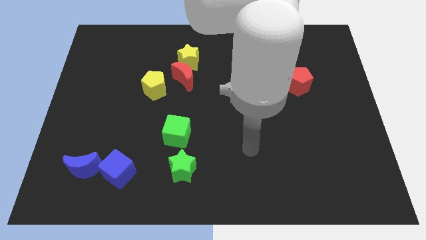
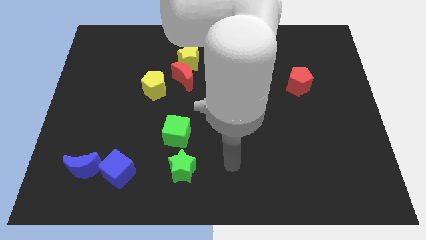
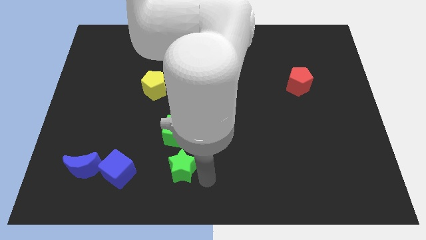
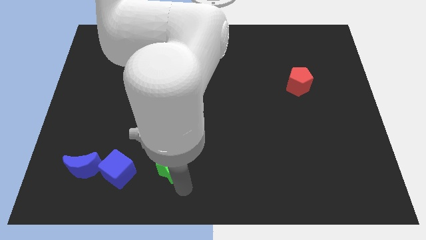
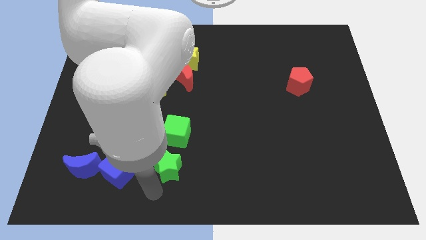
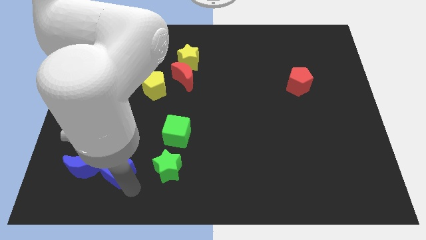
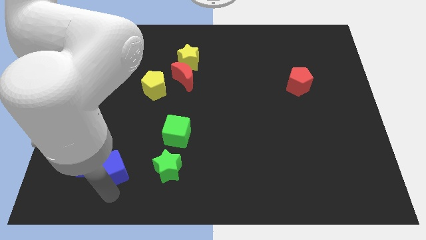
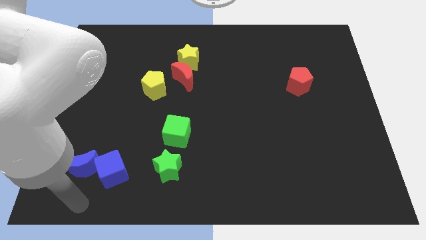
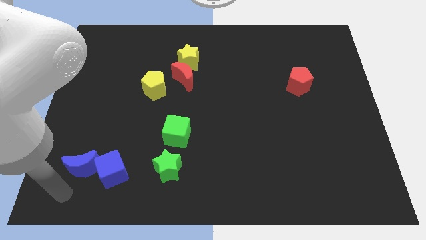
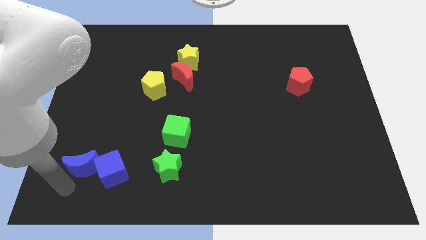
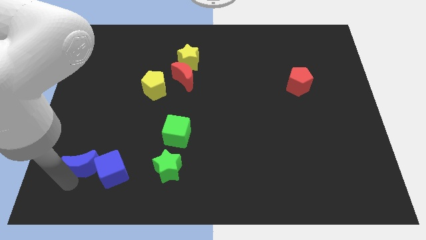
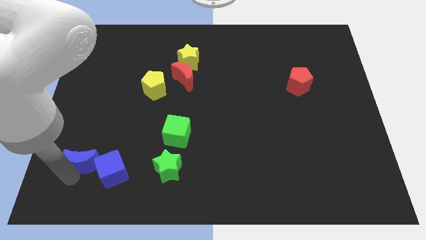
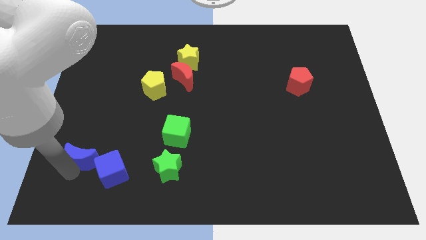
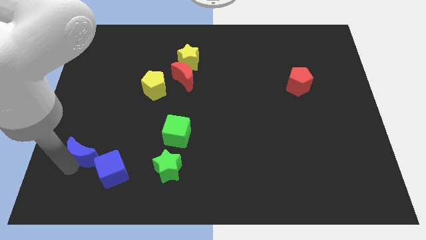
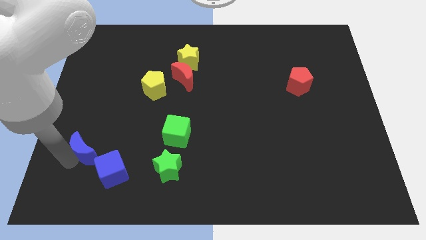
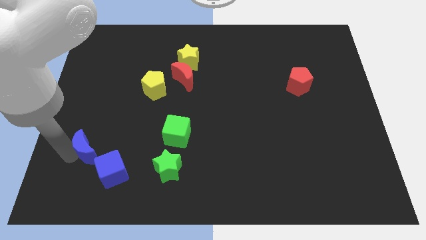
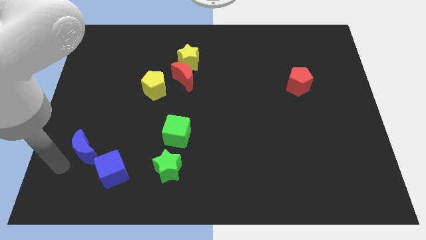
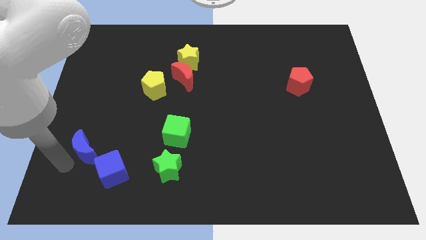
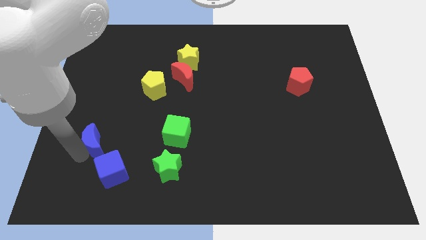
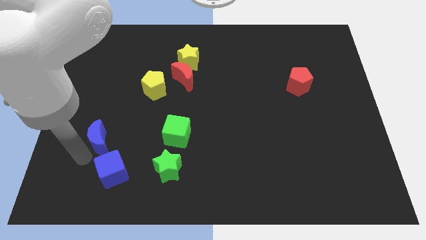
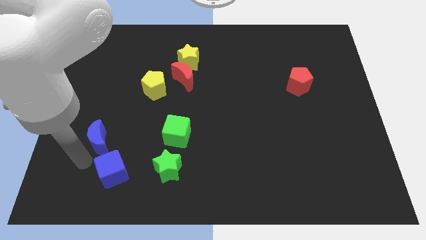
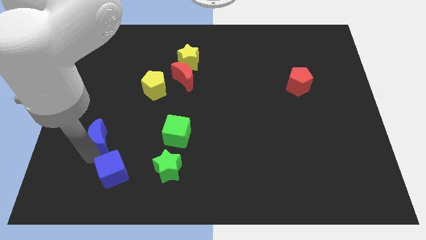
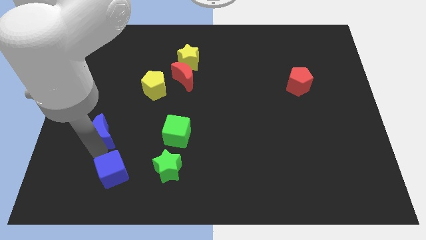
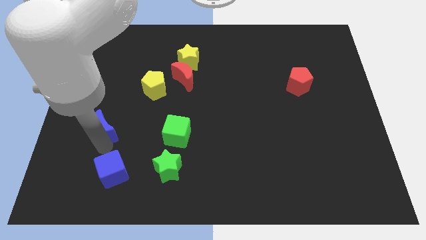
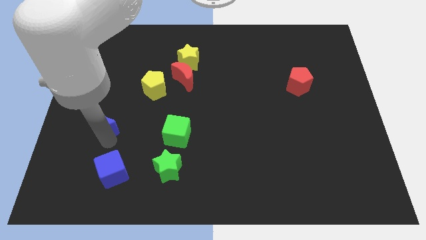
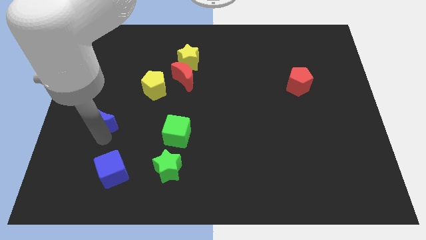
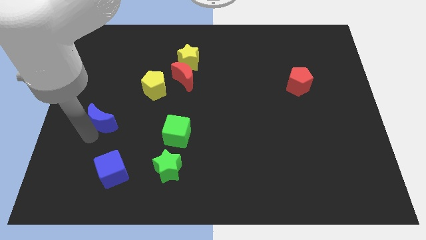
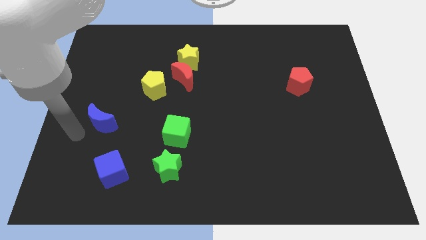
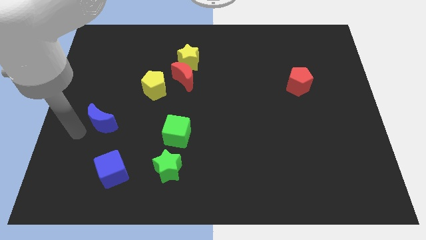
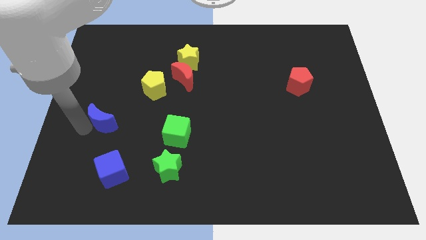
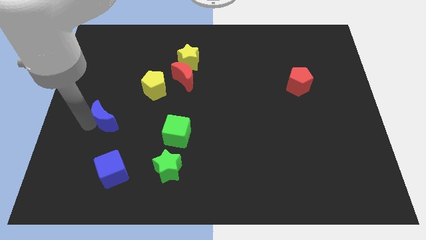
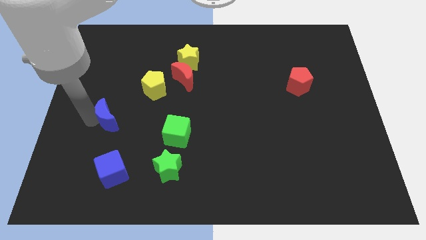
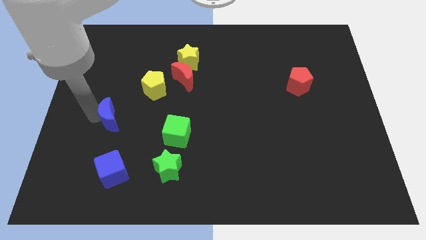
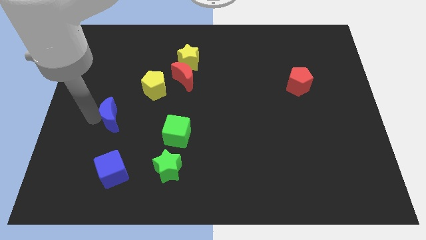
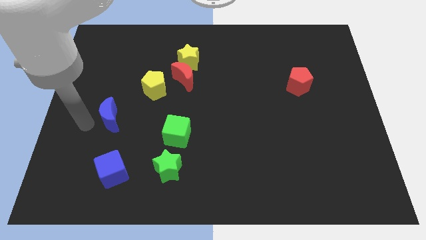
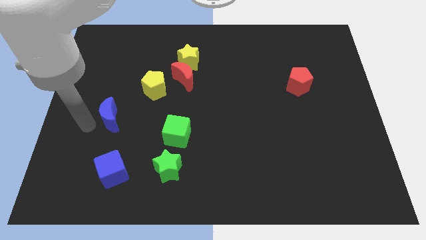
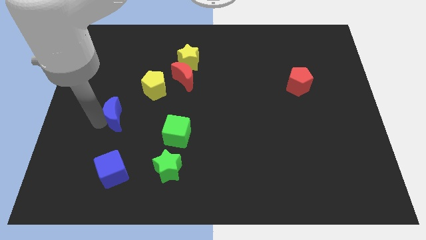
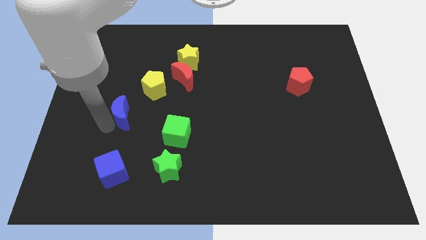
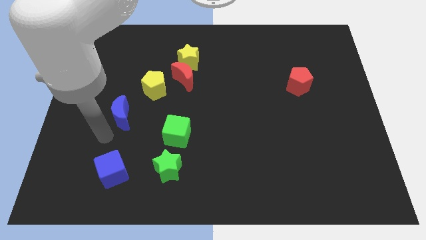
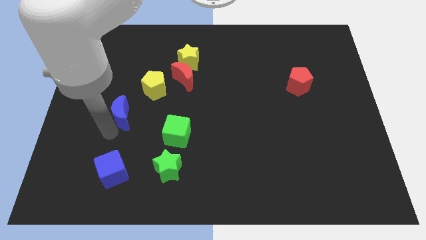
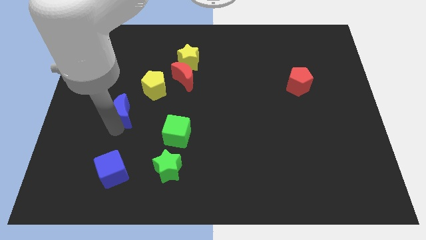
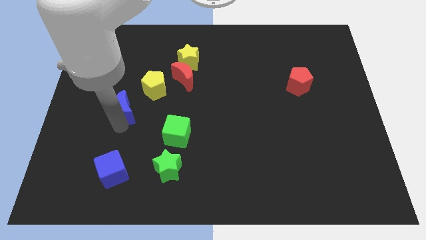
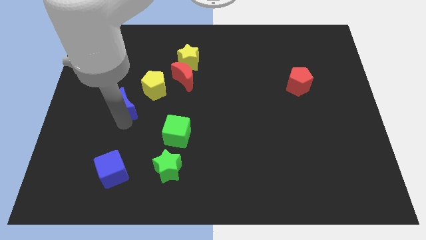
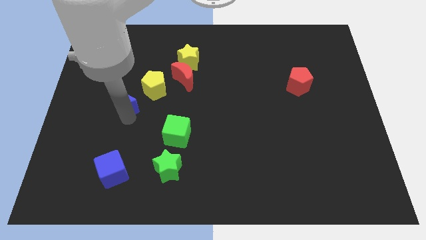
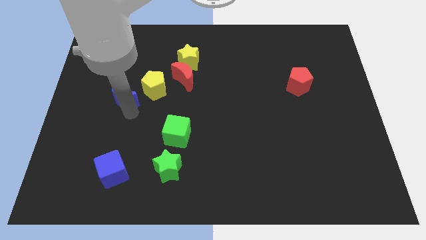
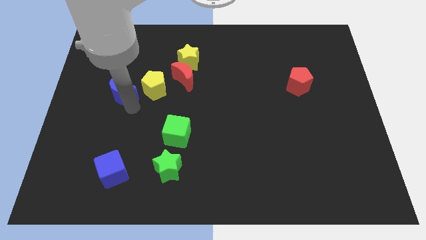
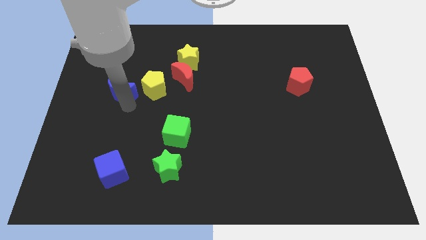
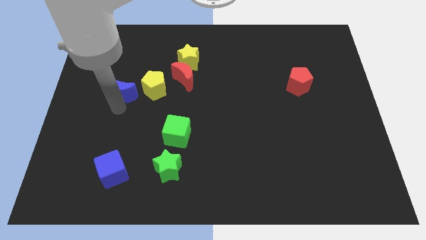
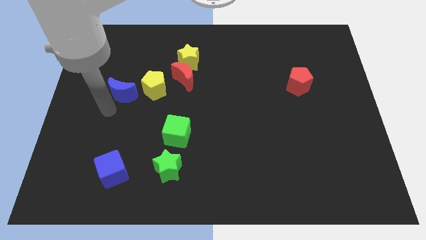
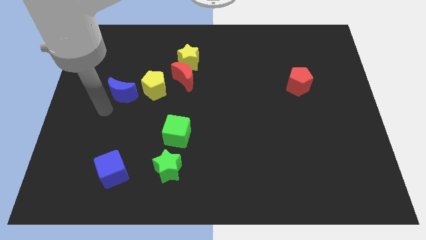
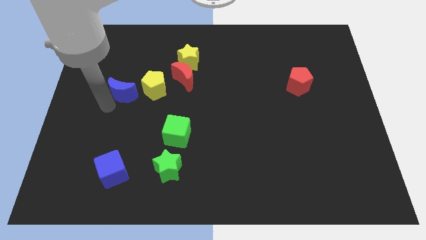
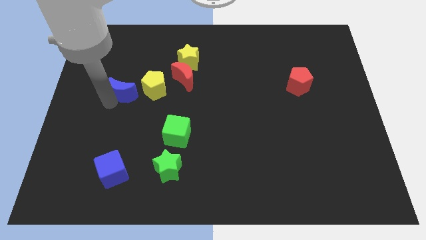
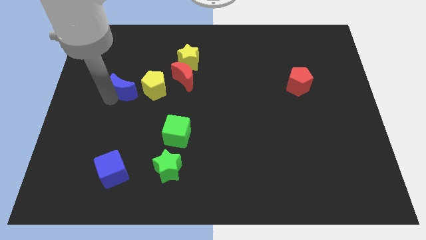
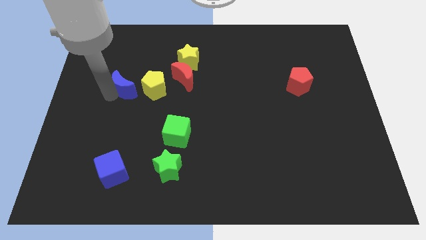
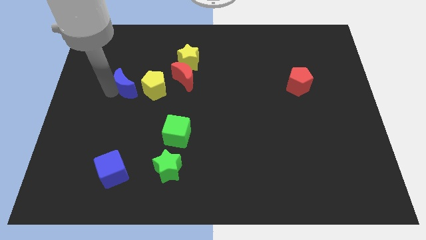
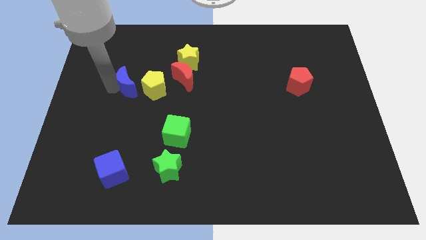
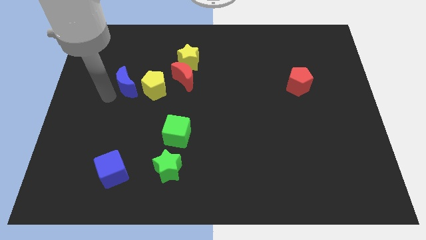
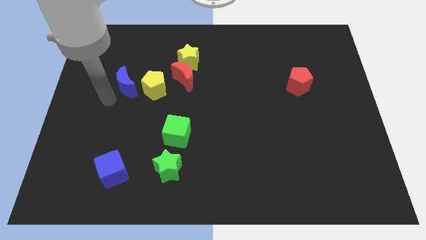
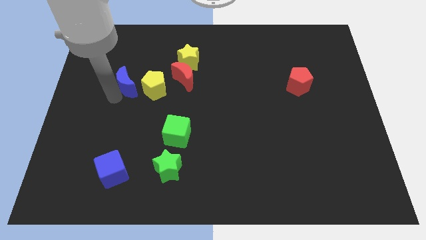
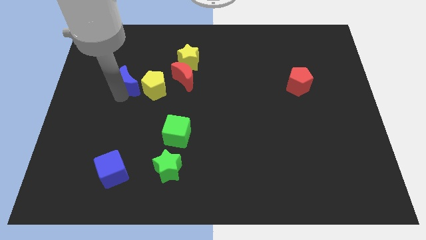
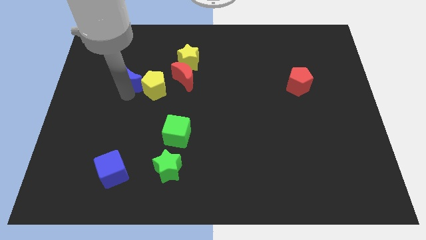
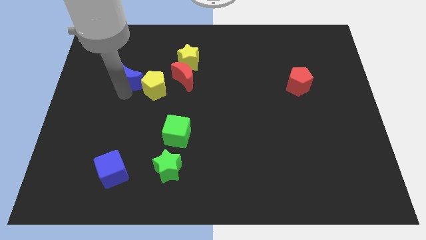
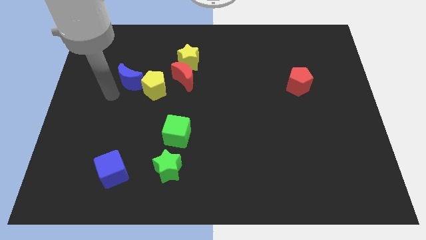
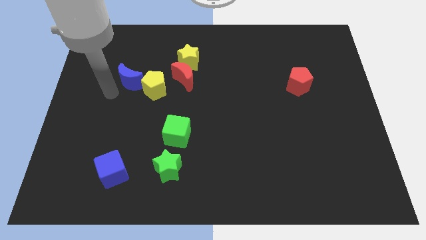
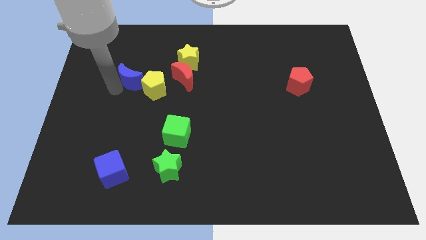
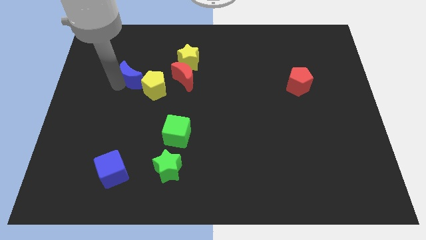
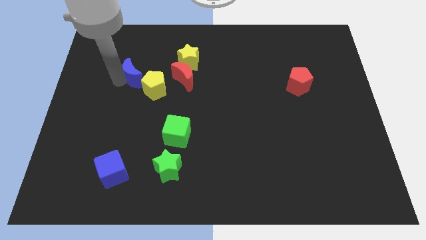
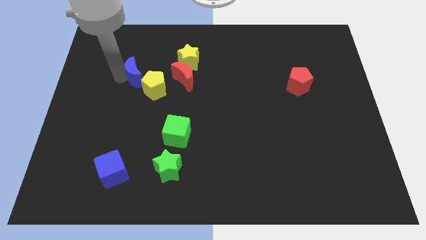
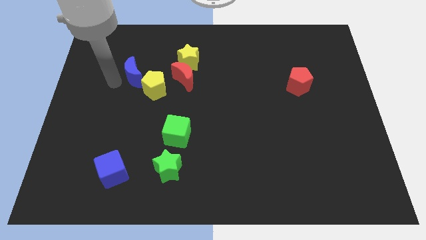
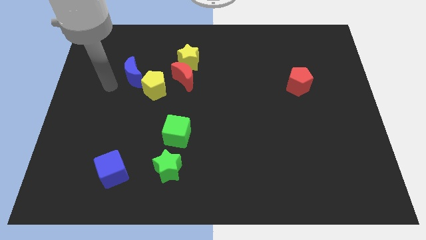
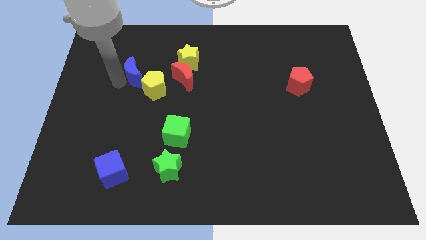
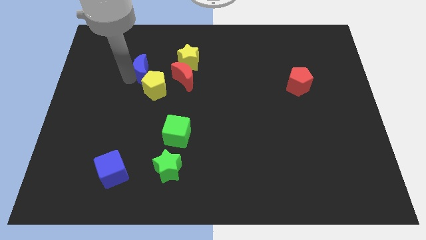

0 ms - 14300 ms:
slide the blue moon left of the yellow star
